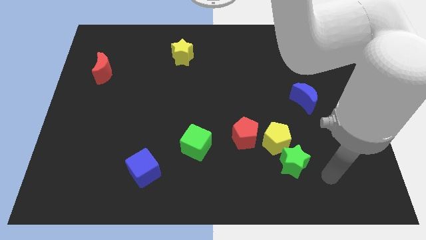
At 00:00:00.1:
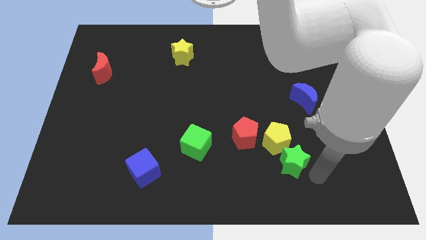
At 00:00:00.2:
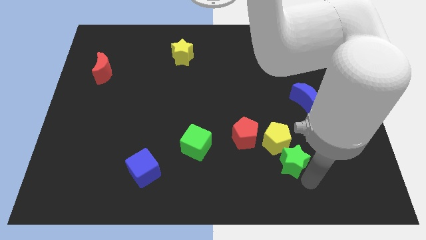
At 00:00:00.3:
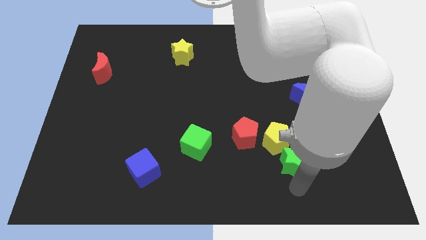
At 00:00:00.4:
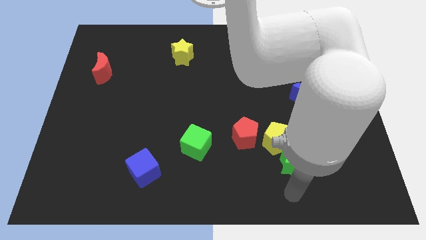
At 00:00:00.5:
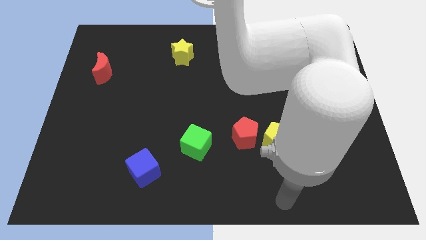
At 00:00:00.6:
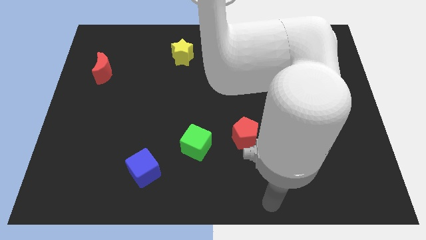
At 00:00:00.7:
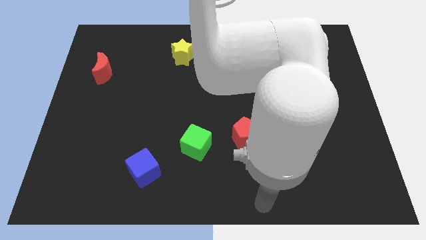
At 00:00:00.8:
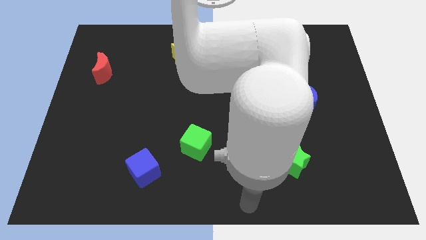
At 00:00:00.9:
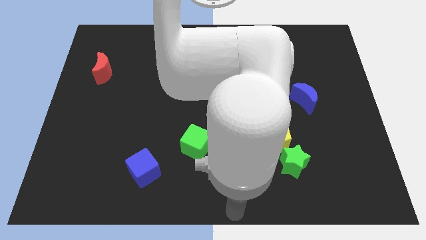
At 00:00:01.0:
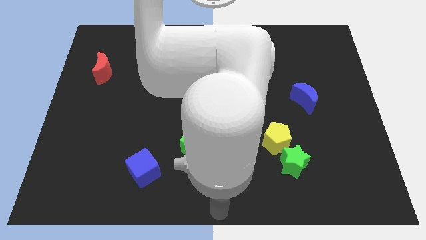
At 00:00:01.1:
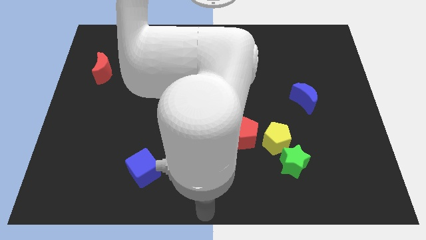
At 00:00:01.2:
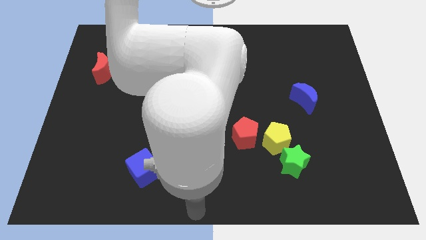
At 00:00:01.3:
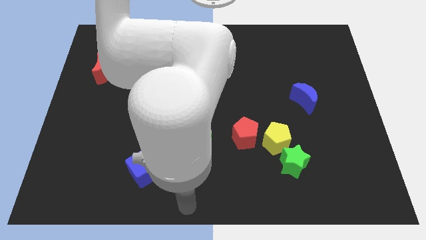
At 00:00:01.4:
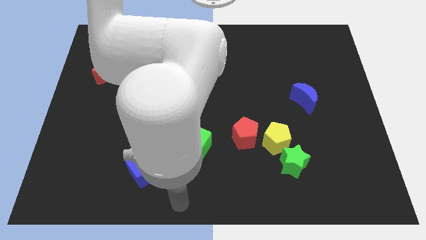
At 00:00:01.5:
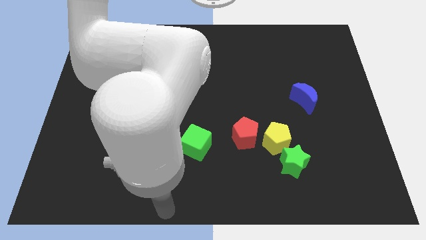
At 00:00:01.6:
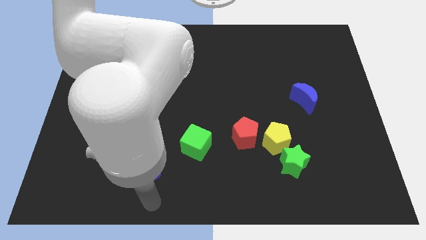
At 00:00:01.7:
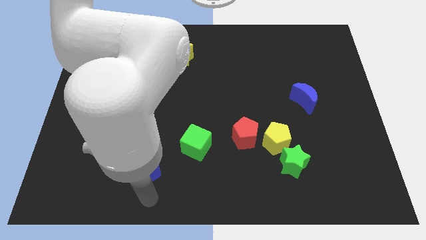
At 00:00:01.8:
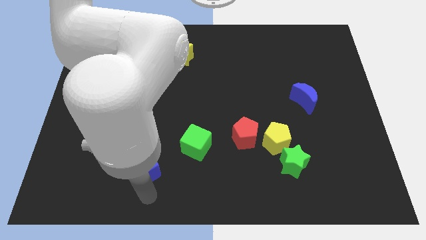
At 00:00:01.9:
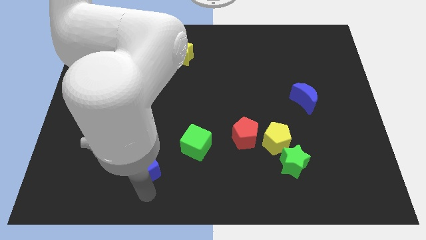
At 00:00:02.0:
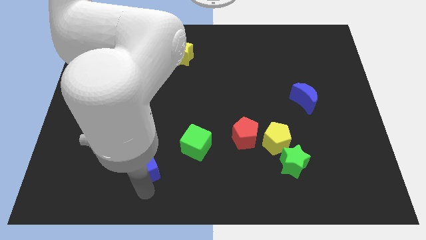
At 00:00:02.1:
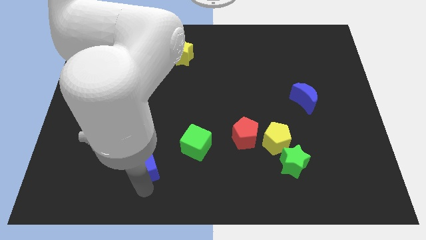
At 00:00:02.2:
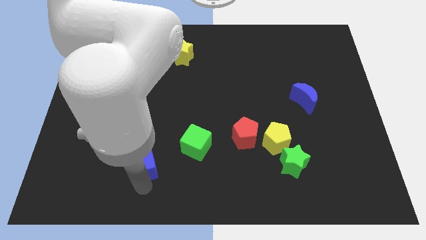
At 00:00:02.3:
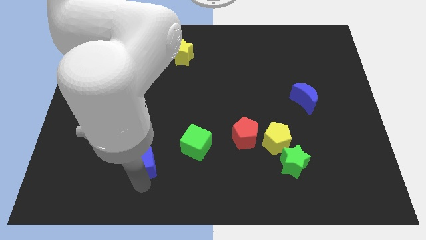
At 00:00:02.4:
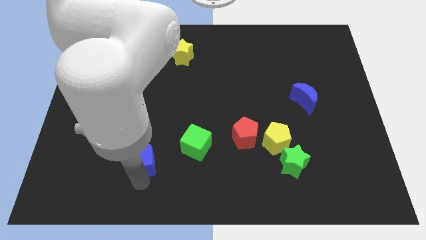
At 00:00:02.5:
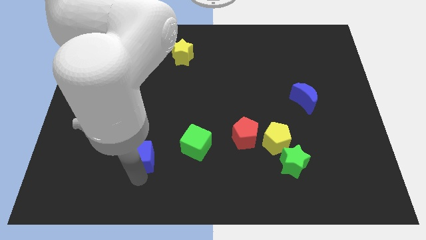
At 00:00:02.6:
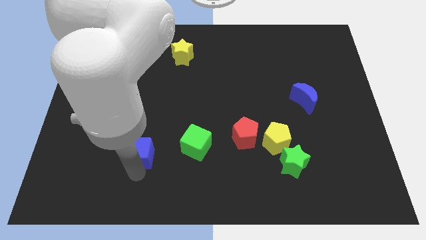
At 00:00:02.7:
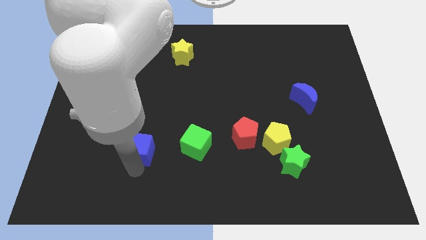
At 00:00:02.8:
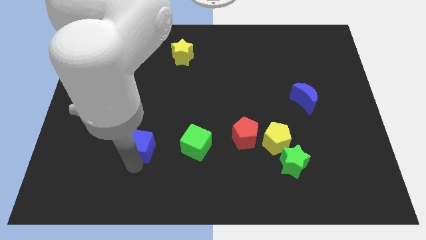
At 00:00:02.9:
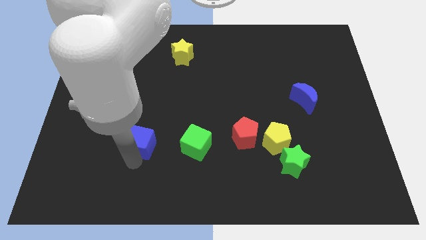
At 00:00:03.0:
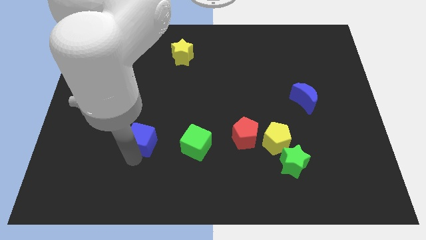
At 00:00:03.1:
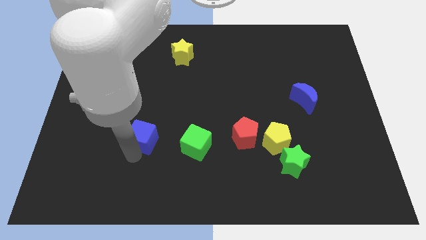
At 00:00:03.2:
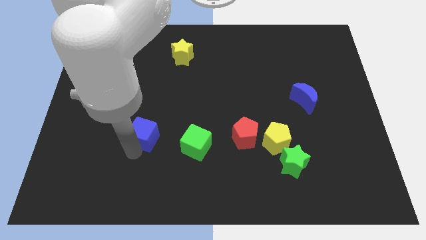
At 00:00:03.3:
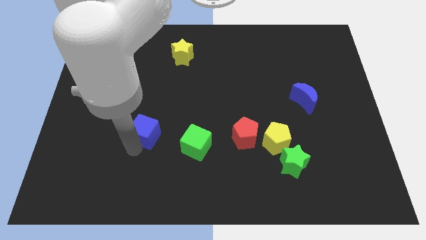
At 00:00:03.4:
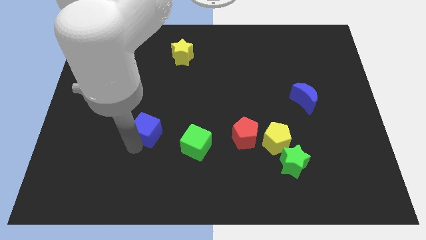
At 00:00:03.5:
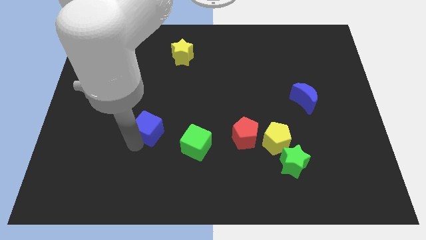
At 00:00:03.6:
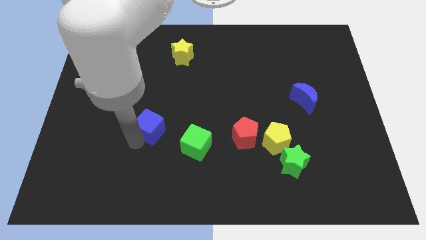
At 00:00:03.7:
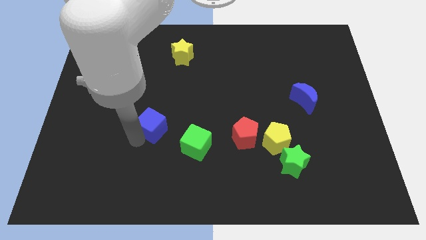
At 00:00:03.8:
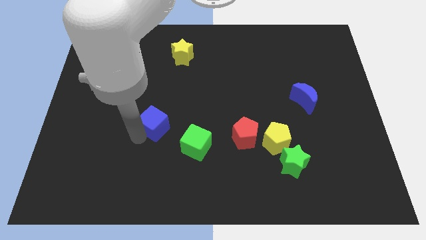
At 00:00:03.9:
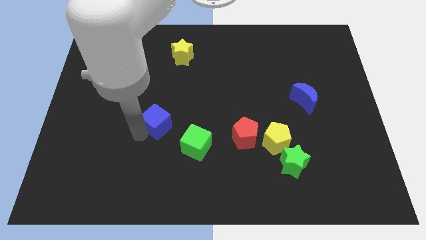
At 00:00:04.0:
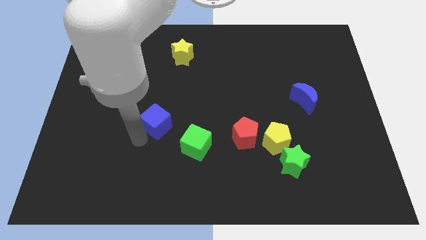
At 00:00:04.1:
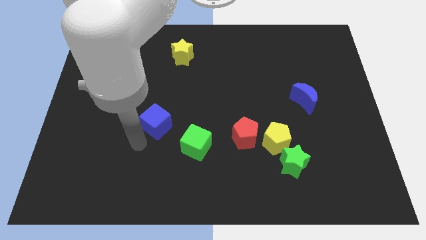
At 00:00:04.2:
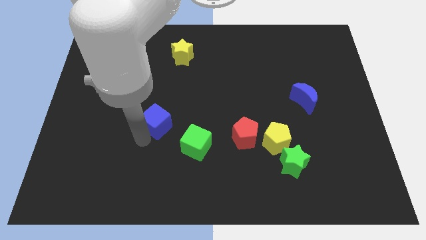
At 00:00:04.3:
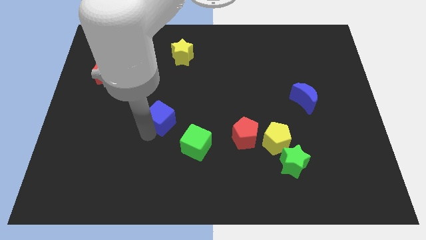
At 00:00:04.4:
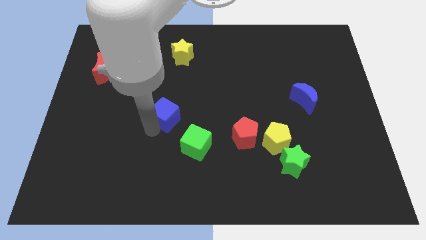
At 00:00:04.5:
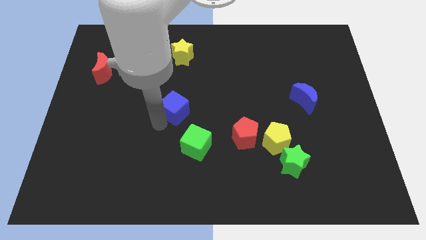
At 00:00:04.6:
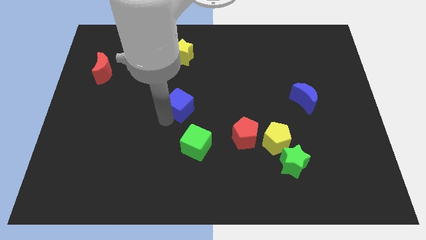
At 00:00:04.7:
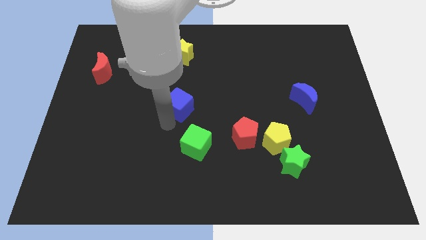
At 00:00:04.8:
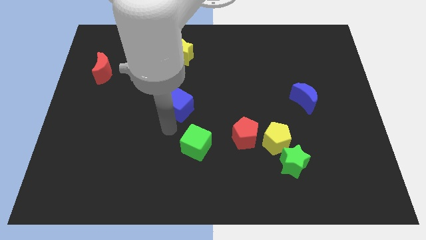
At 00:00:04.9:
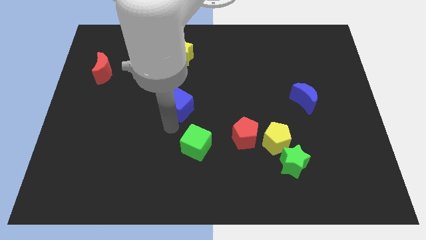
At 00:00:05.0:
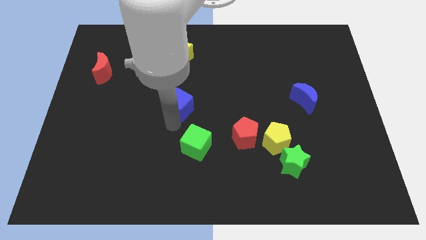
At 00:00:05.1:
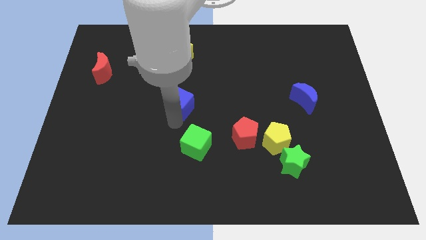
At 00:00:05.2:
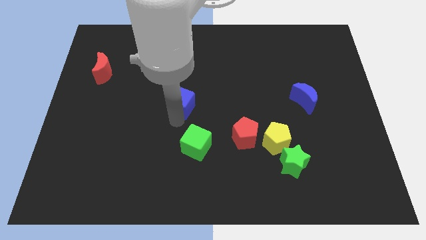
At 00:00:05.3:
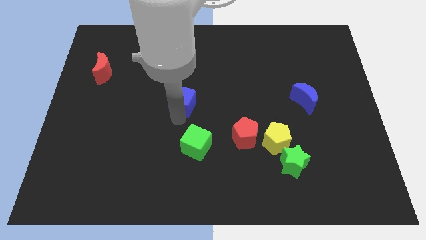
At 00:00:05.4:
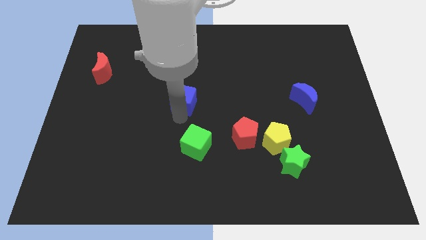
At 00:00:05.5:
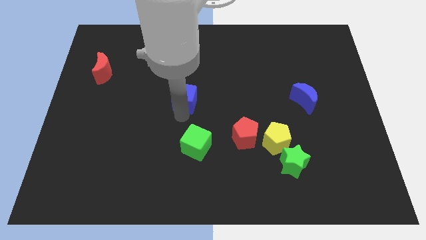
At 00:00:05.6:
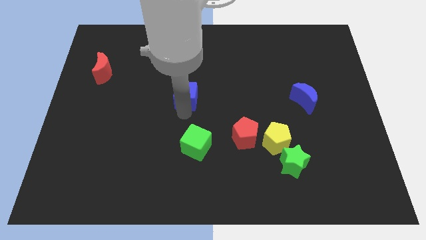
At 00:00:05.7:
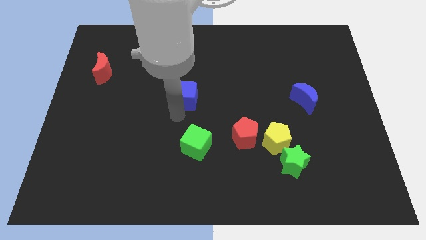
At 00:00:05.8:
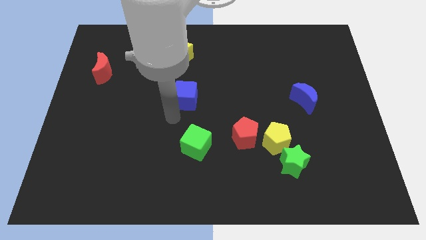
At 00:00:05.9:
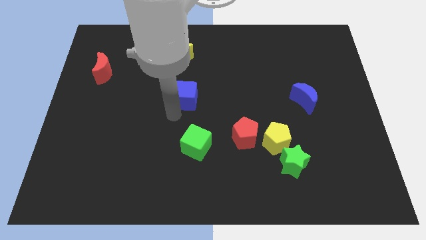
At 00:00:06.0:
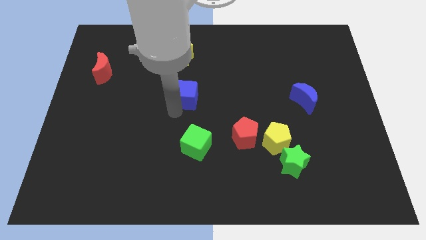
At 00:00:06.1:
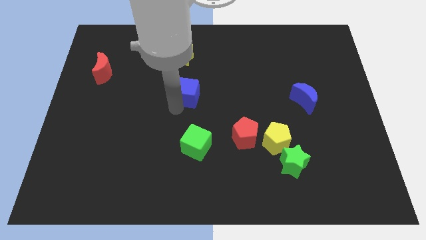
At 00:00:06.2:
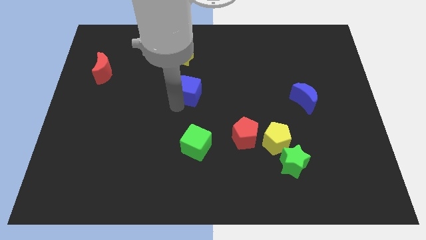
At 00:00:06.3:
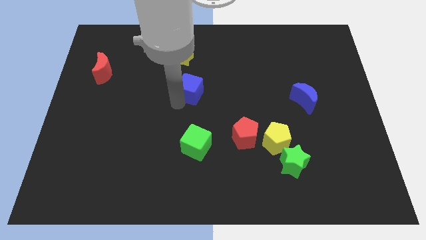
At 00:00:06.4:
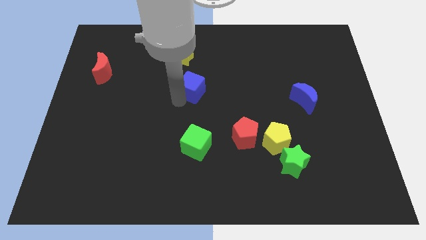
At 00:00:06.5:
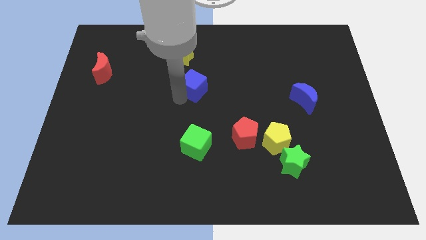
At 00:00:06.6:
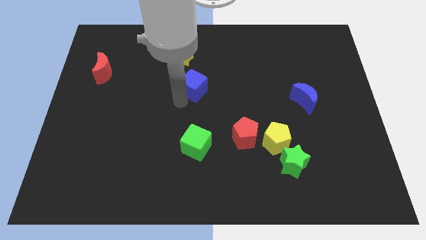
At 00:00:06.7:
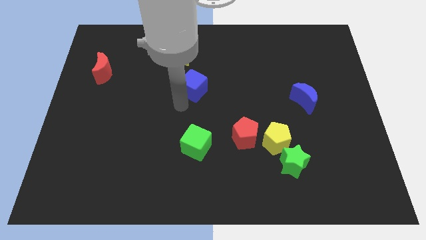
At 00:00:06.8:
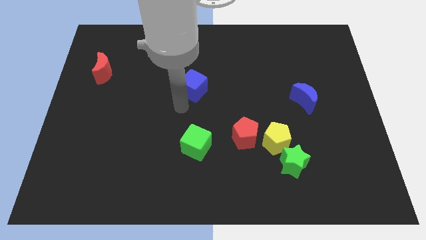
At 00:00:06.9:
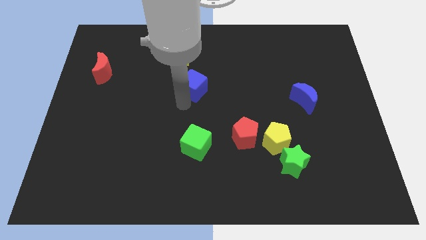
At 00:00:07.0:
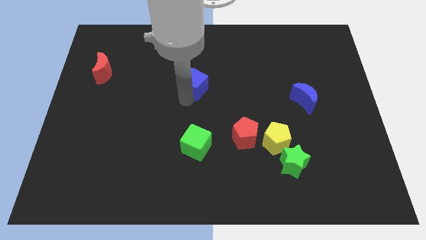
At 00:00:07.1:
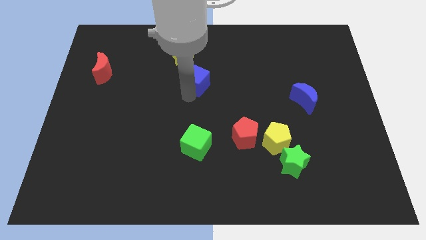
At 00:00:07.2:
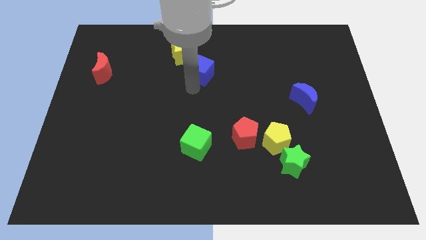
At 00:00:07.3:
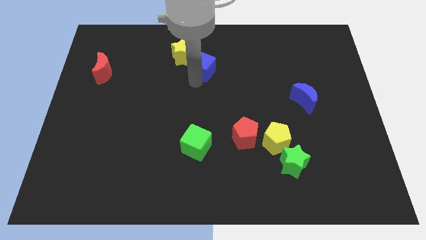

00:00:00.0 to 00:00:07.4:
put the blue cube to the right side of the yellow star
